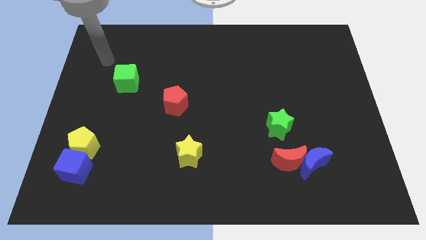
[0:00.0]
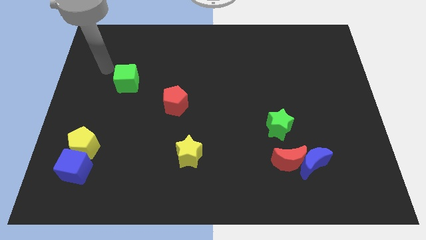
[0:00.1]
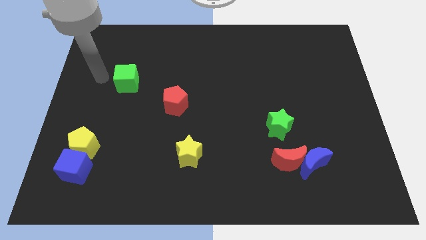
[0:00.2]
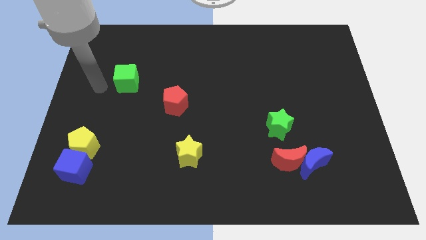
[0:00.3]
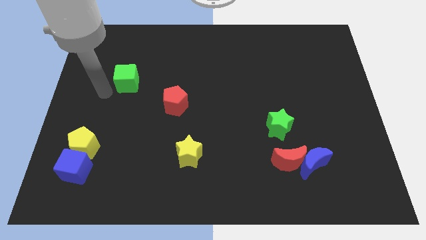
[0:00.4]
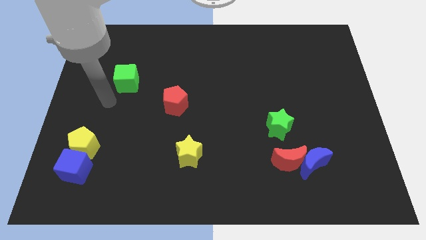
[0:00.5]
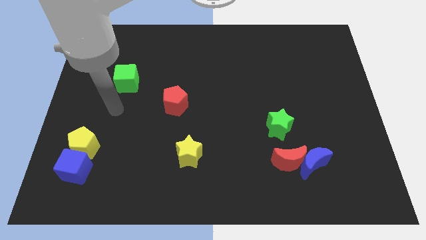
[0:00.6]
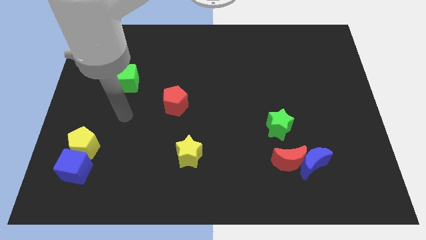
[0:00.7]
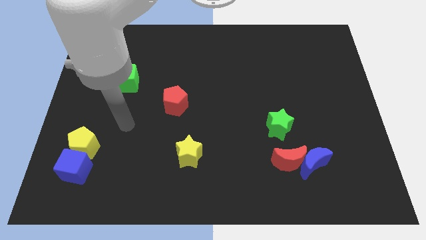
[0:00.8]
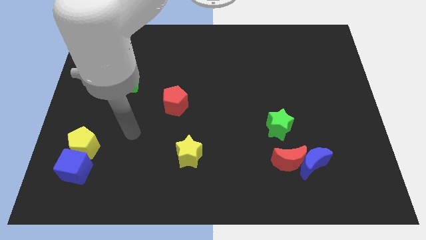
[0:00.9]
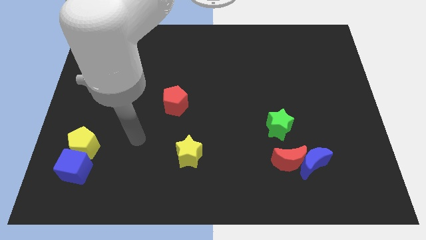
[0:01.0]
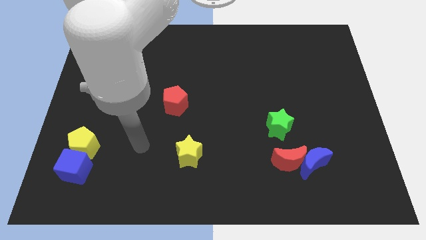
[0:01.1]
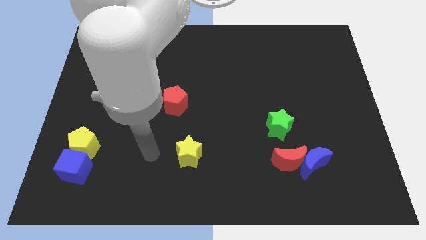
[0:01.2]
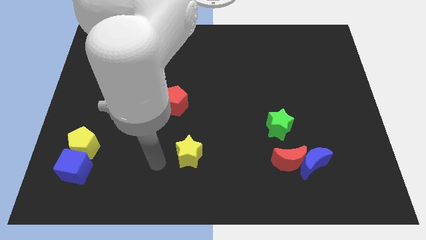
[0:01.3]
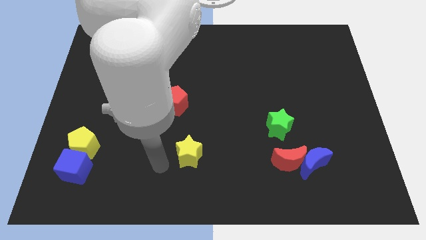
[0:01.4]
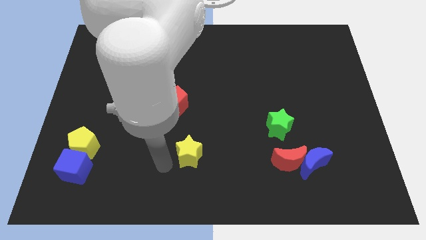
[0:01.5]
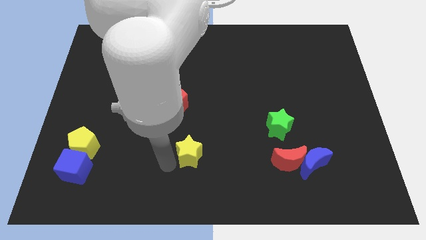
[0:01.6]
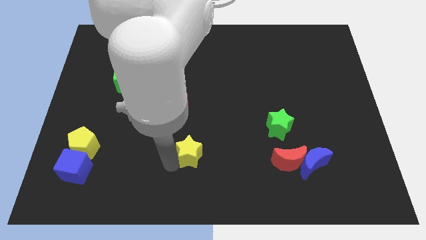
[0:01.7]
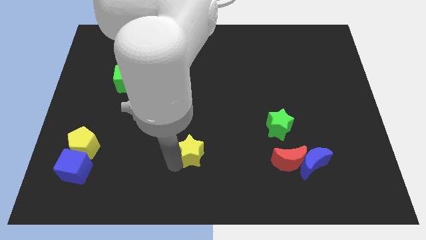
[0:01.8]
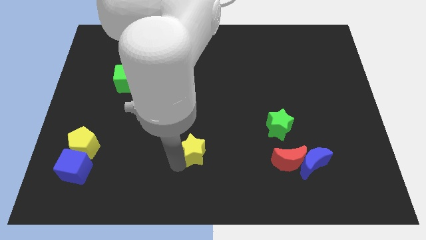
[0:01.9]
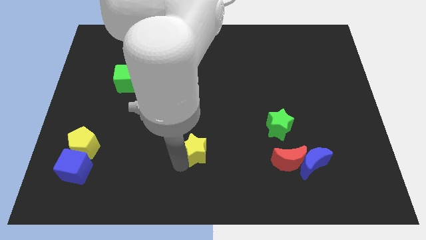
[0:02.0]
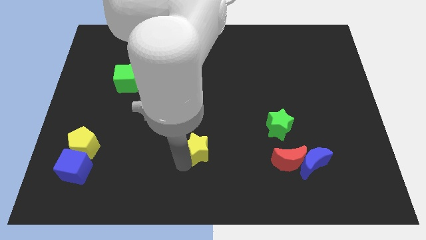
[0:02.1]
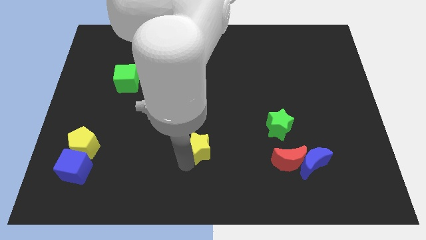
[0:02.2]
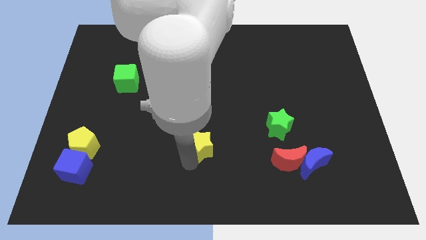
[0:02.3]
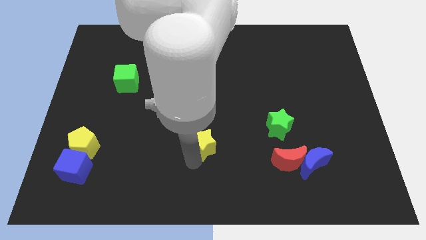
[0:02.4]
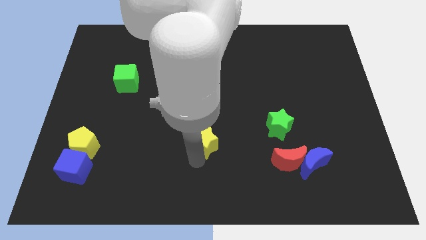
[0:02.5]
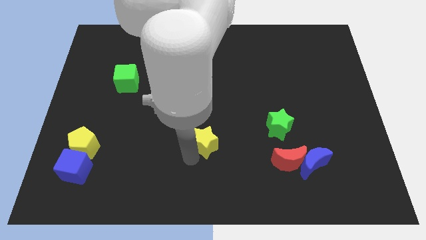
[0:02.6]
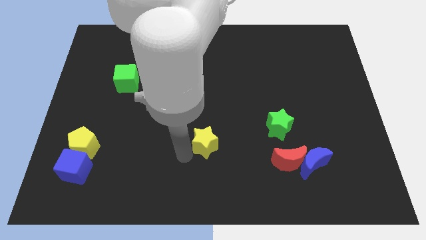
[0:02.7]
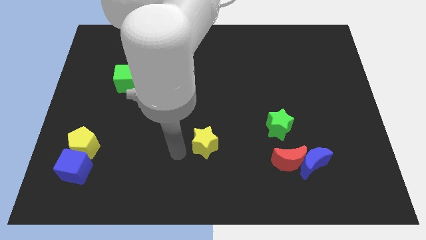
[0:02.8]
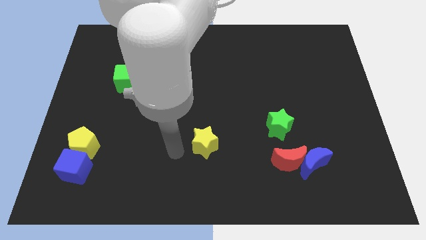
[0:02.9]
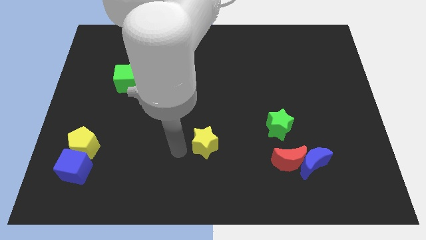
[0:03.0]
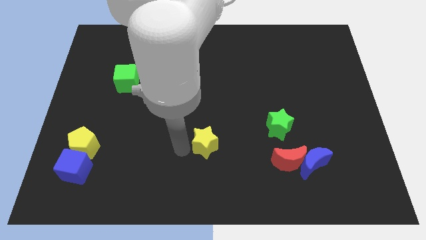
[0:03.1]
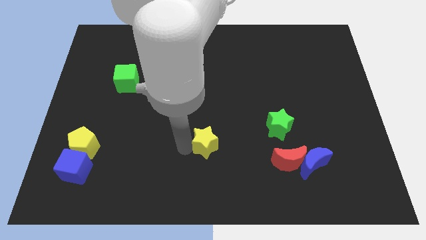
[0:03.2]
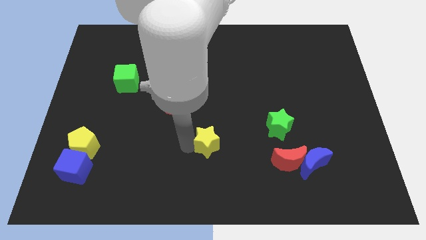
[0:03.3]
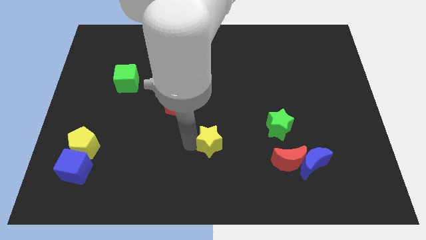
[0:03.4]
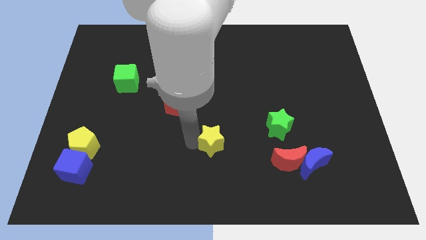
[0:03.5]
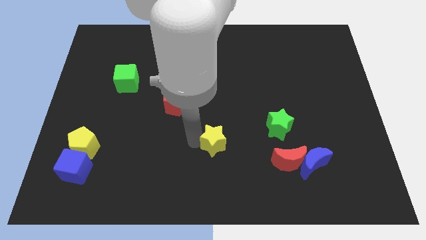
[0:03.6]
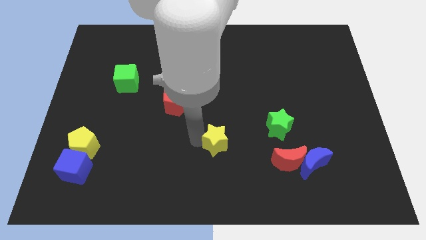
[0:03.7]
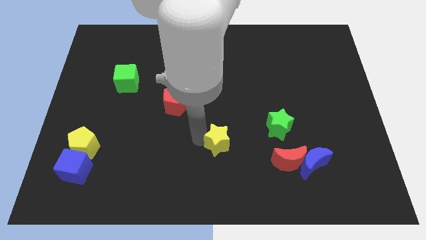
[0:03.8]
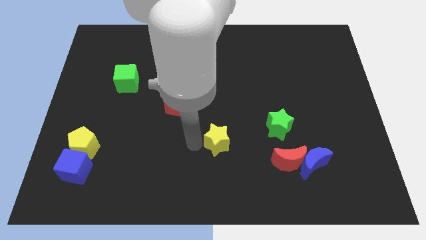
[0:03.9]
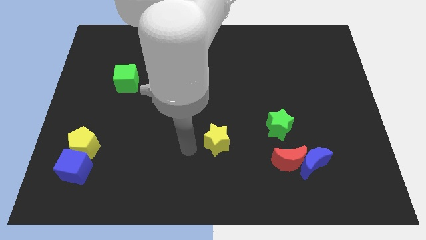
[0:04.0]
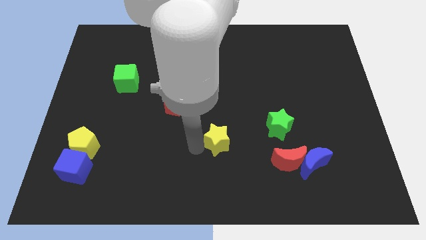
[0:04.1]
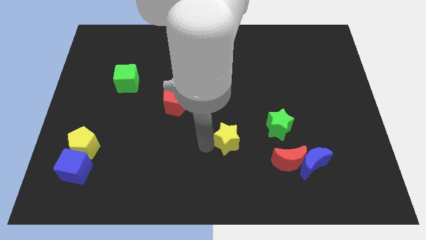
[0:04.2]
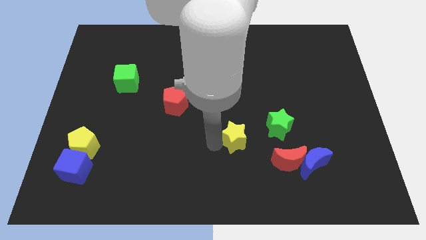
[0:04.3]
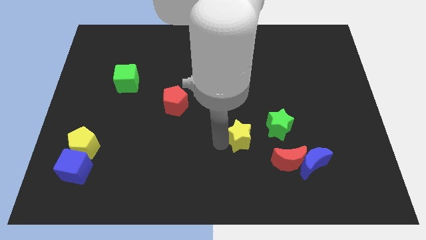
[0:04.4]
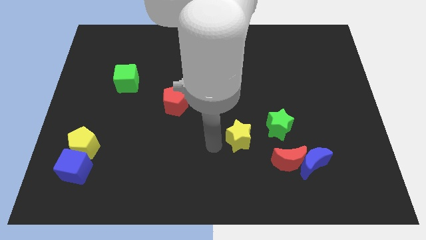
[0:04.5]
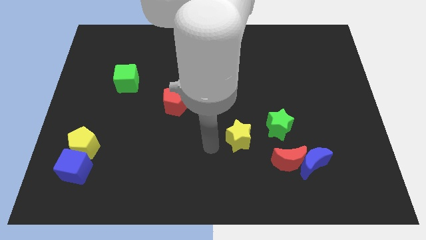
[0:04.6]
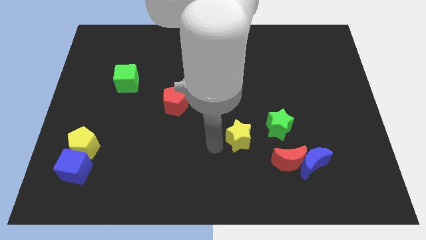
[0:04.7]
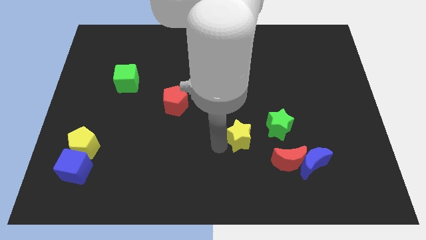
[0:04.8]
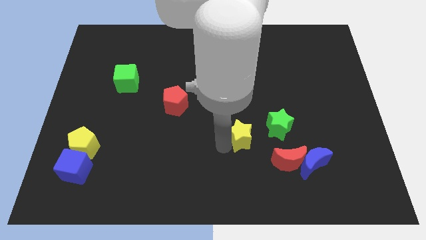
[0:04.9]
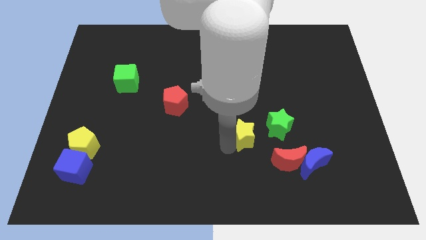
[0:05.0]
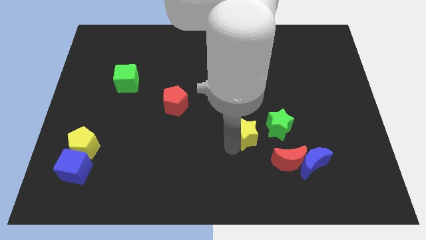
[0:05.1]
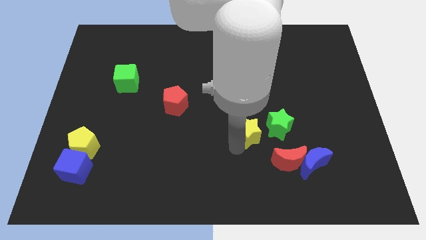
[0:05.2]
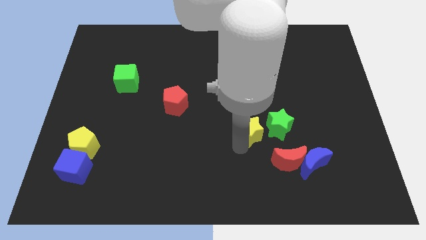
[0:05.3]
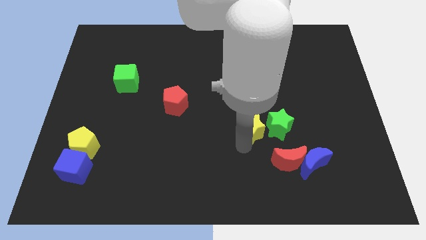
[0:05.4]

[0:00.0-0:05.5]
move the yellow star to the green star

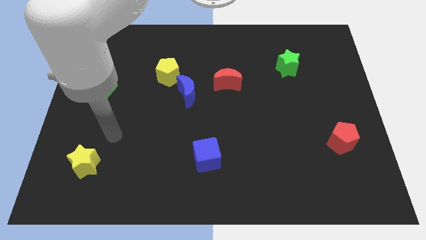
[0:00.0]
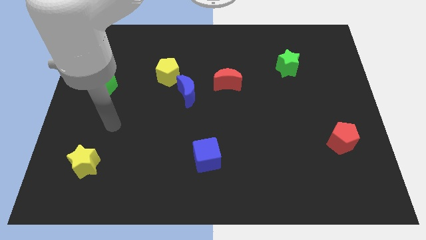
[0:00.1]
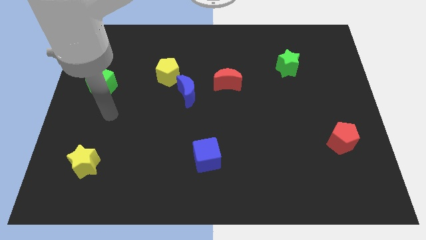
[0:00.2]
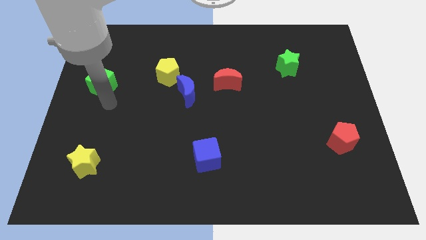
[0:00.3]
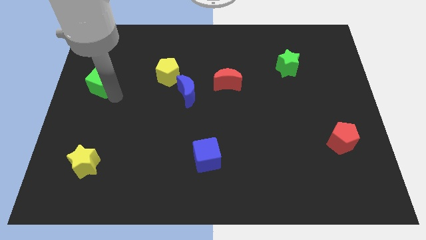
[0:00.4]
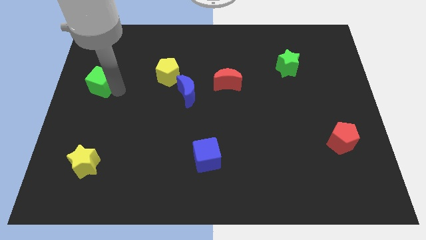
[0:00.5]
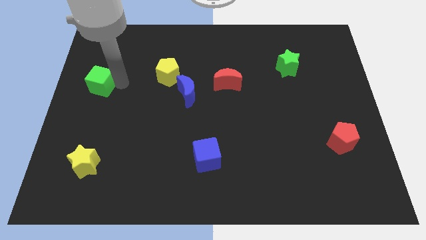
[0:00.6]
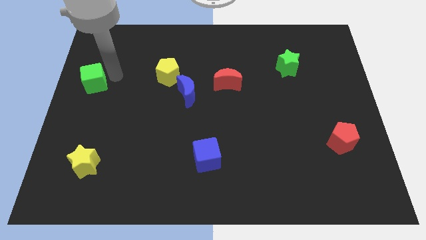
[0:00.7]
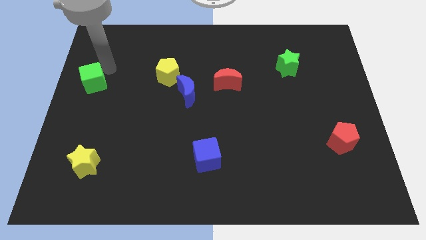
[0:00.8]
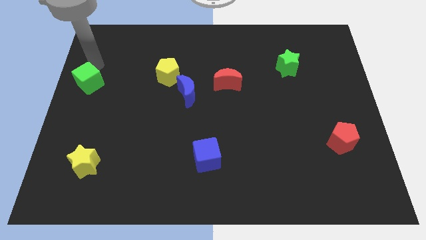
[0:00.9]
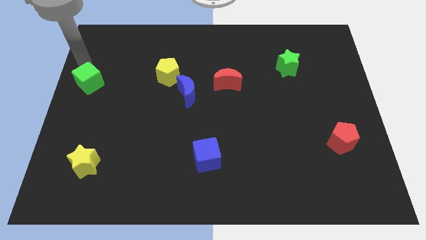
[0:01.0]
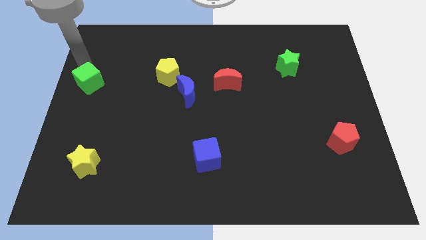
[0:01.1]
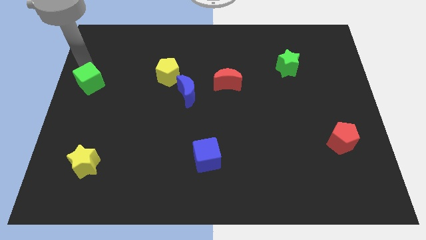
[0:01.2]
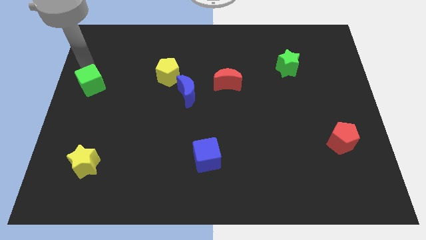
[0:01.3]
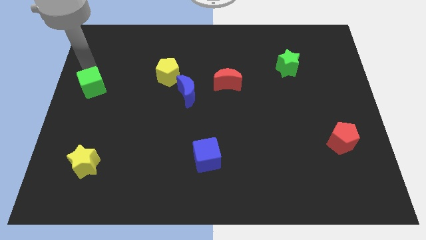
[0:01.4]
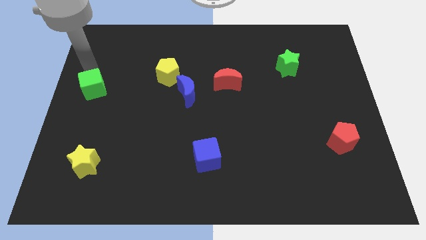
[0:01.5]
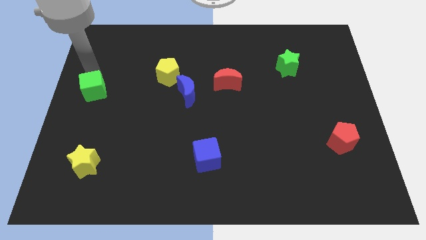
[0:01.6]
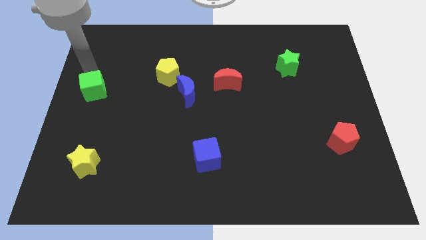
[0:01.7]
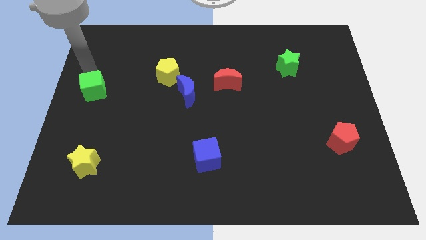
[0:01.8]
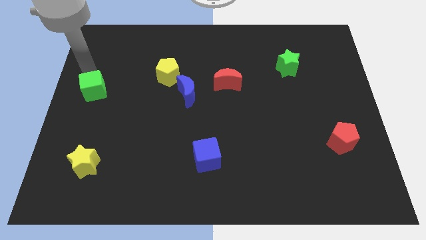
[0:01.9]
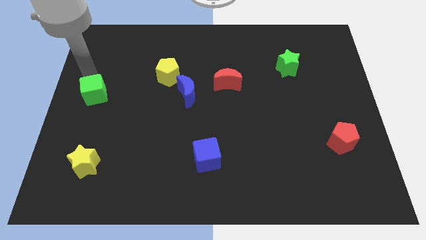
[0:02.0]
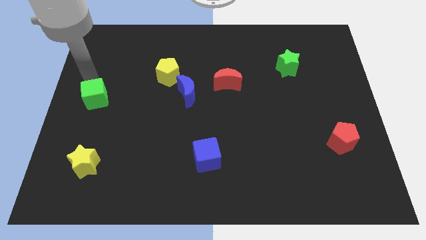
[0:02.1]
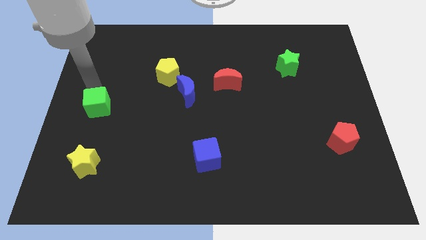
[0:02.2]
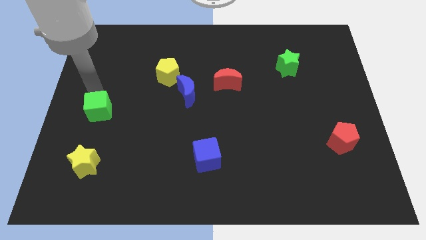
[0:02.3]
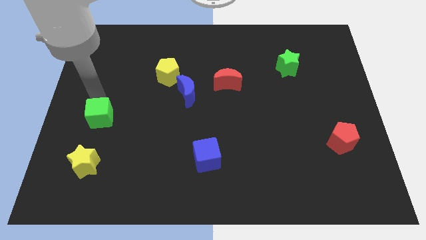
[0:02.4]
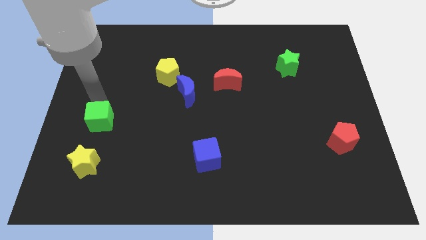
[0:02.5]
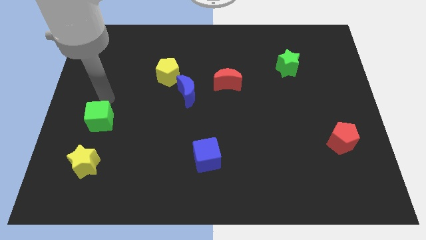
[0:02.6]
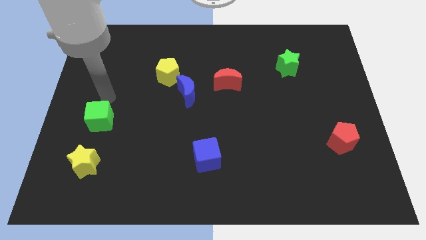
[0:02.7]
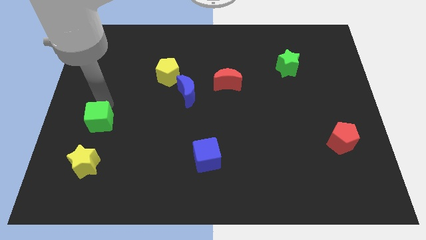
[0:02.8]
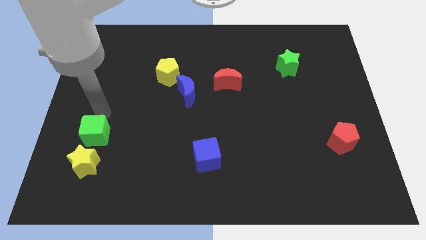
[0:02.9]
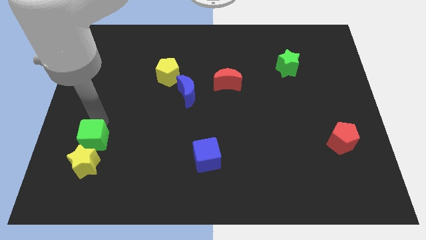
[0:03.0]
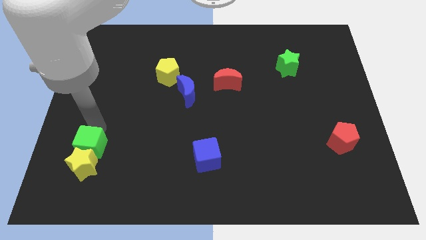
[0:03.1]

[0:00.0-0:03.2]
slide the green cube to the yellow star
